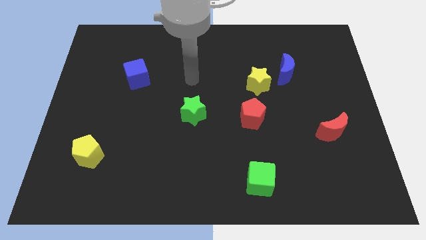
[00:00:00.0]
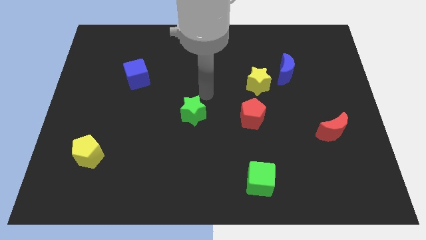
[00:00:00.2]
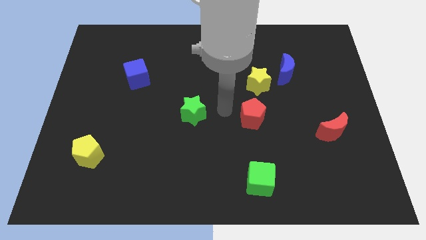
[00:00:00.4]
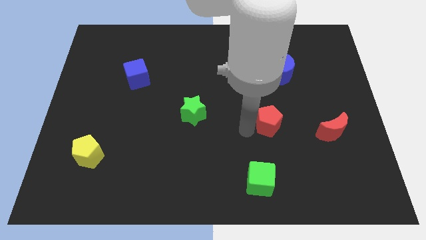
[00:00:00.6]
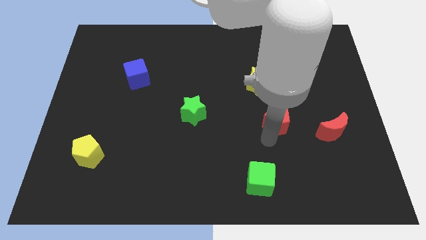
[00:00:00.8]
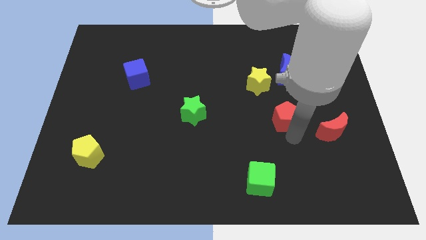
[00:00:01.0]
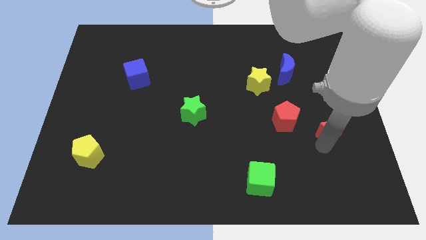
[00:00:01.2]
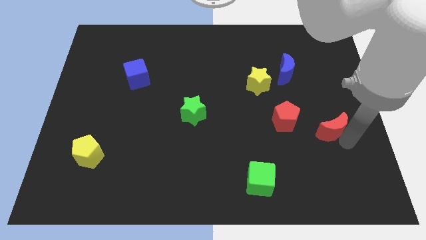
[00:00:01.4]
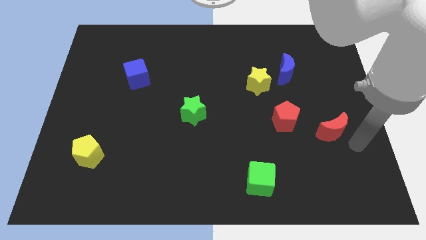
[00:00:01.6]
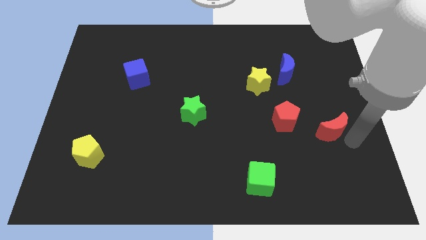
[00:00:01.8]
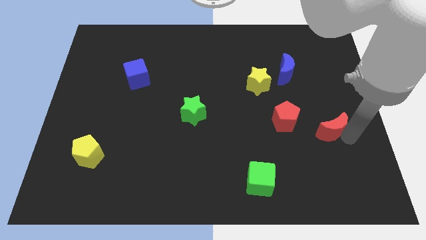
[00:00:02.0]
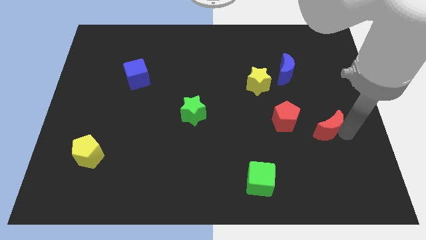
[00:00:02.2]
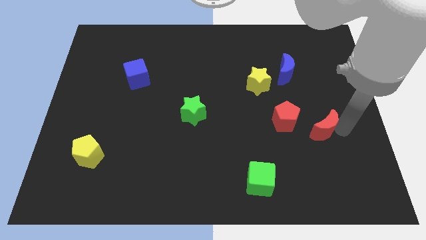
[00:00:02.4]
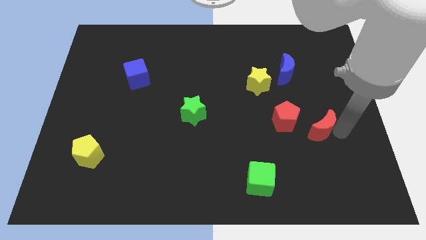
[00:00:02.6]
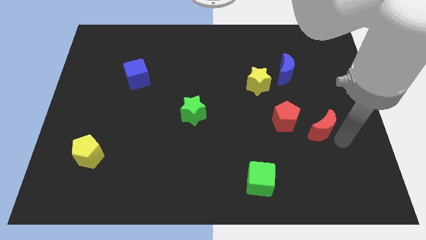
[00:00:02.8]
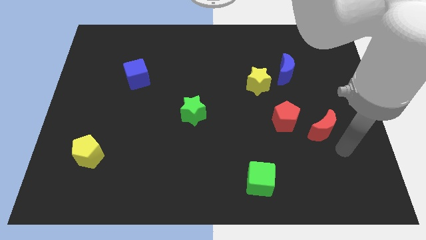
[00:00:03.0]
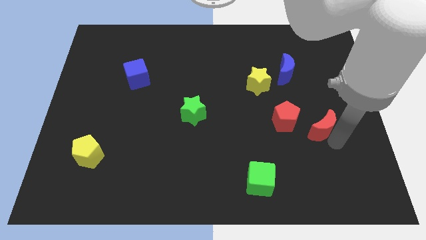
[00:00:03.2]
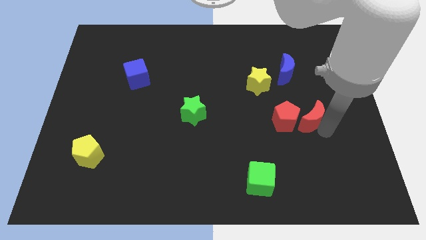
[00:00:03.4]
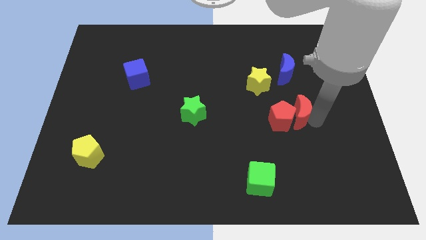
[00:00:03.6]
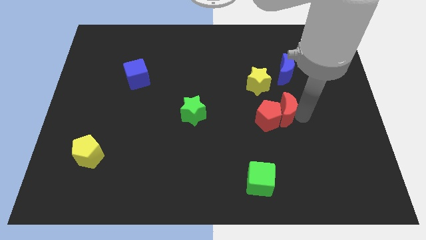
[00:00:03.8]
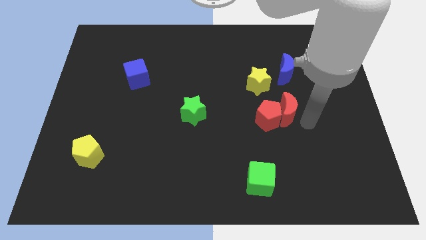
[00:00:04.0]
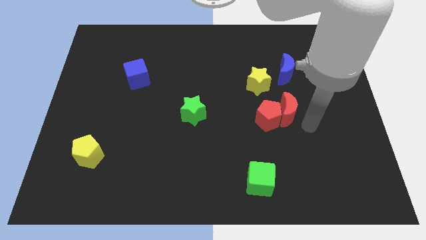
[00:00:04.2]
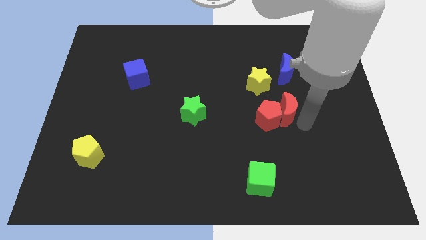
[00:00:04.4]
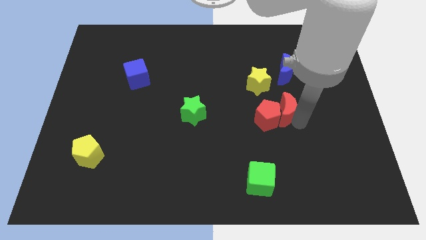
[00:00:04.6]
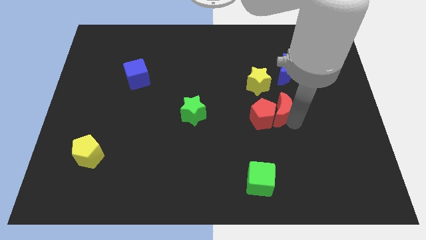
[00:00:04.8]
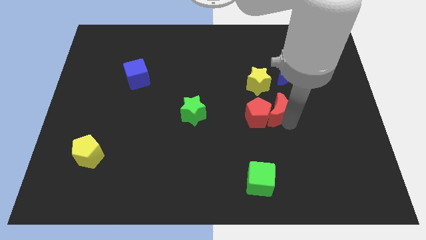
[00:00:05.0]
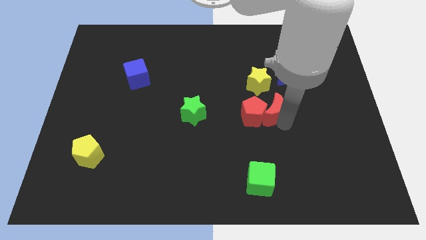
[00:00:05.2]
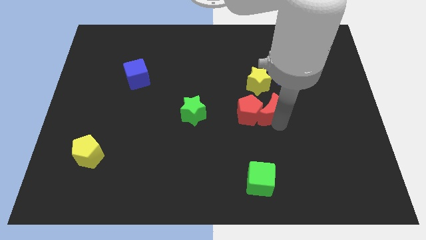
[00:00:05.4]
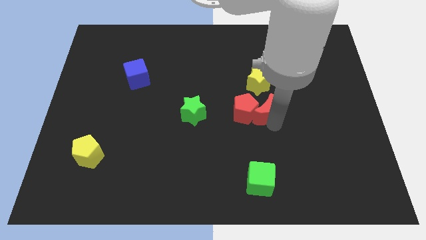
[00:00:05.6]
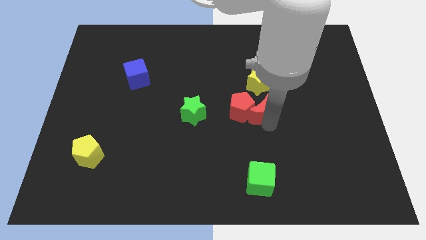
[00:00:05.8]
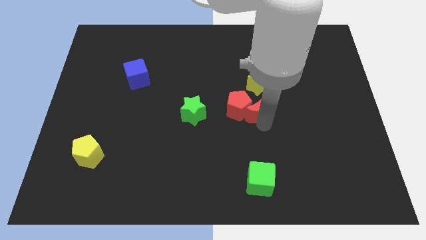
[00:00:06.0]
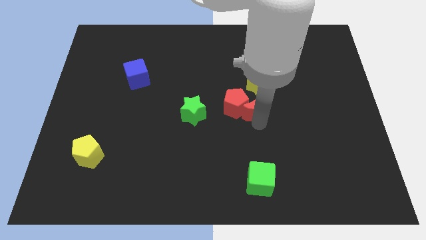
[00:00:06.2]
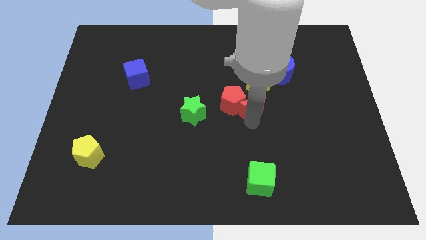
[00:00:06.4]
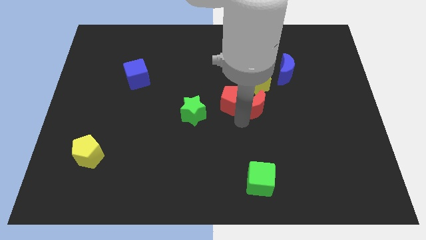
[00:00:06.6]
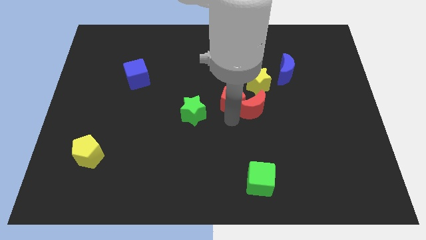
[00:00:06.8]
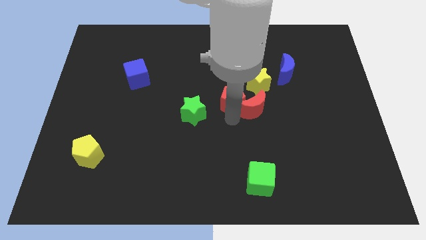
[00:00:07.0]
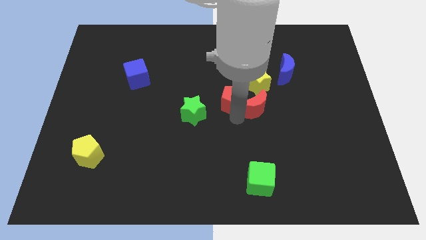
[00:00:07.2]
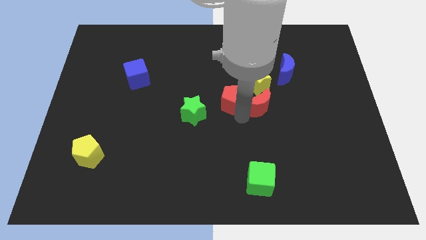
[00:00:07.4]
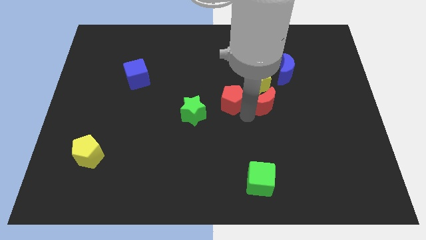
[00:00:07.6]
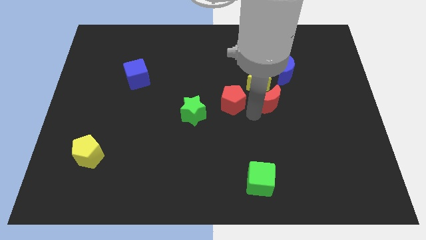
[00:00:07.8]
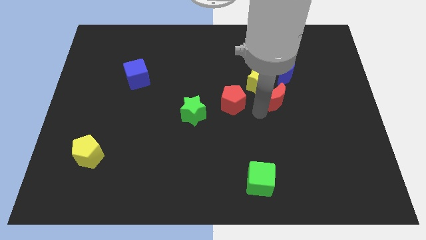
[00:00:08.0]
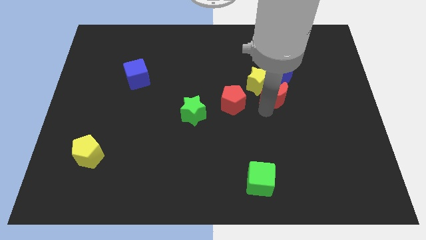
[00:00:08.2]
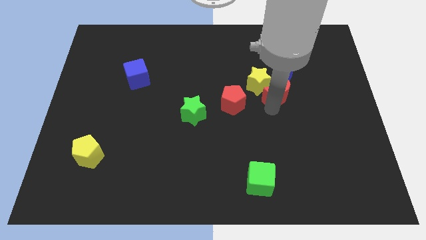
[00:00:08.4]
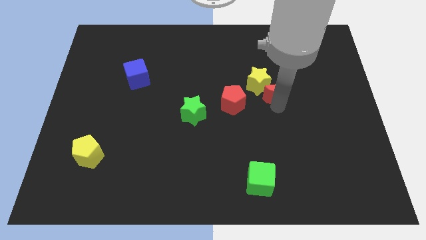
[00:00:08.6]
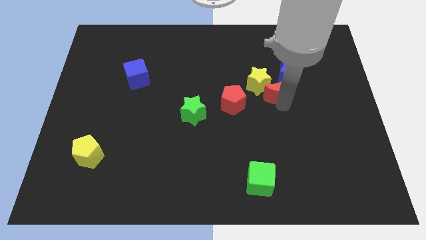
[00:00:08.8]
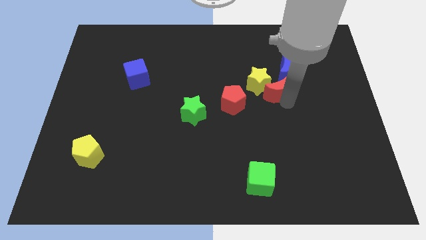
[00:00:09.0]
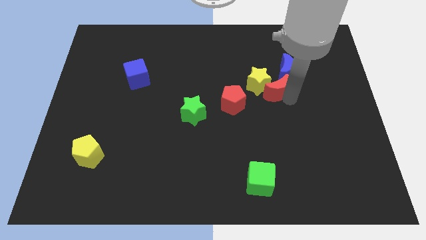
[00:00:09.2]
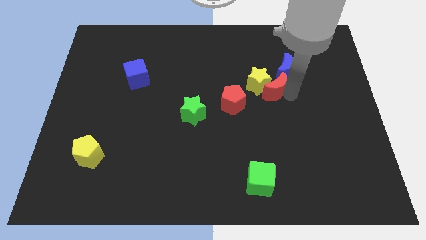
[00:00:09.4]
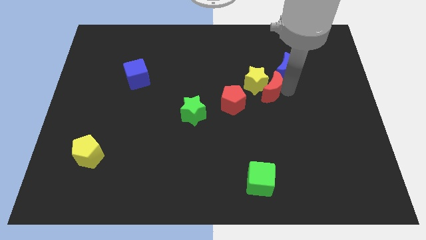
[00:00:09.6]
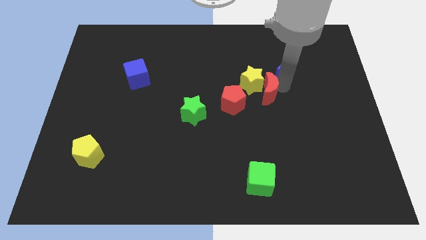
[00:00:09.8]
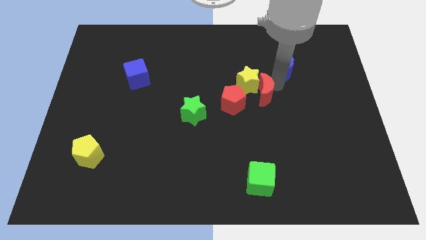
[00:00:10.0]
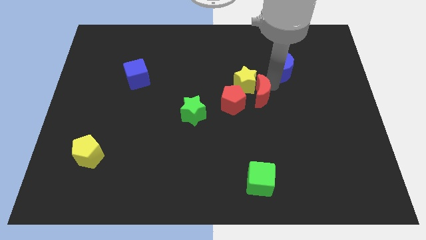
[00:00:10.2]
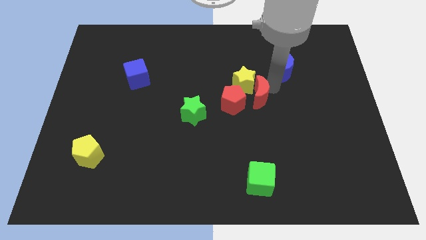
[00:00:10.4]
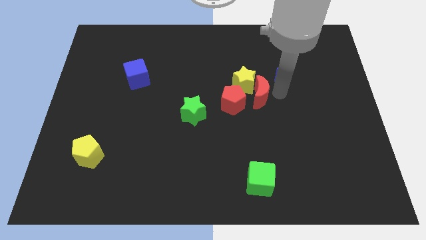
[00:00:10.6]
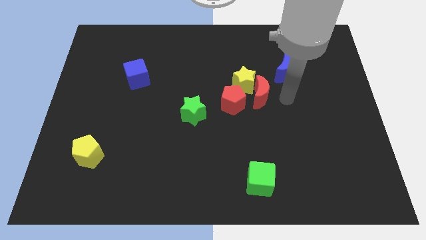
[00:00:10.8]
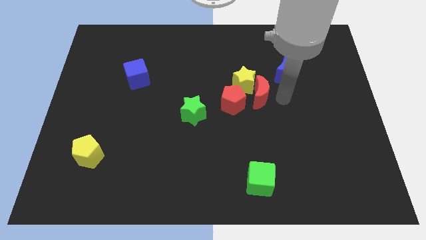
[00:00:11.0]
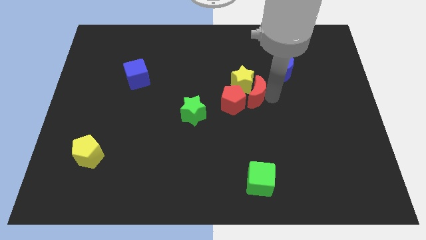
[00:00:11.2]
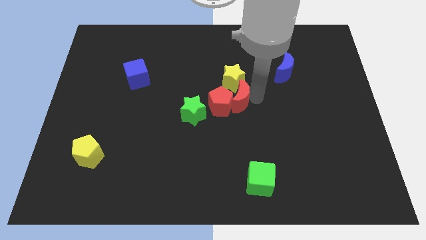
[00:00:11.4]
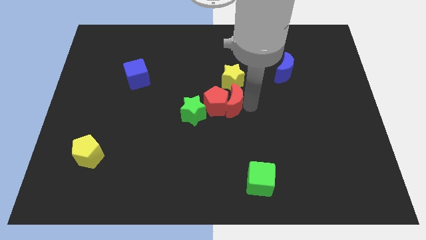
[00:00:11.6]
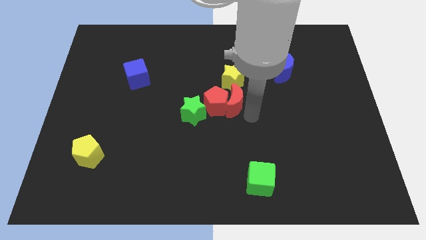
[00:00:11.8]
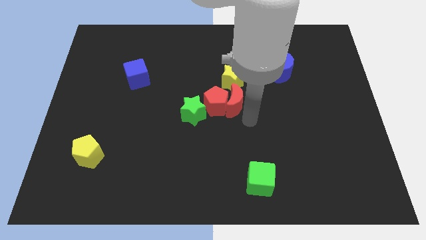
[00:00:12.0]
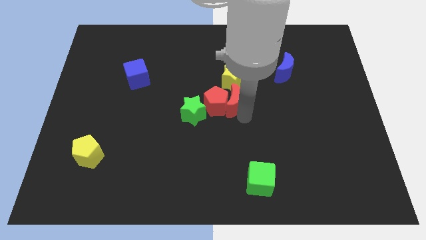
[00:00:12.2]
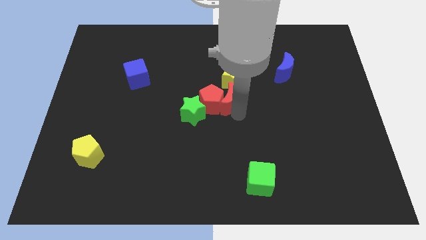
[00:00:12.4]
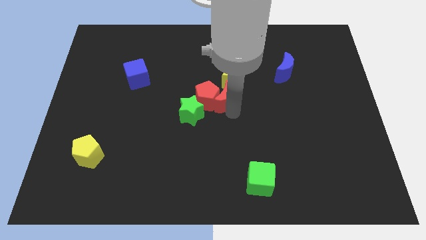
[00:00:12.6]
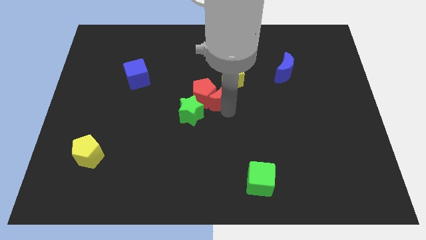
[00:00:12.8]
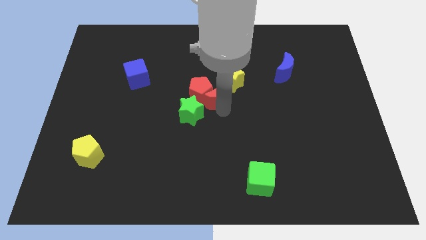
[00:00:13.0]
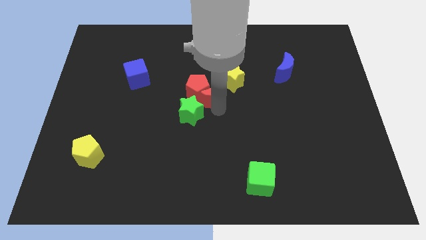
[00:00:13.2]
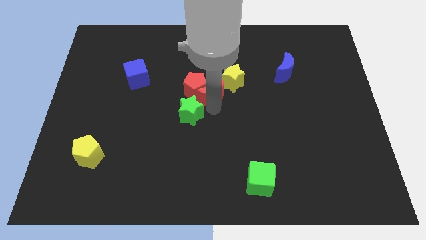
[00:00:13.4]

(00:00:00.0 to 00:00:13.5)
slide the red moon to the top side of the green star

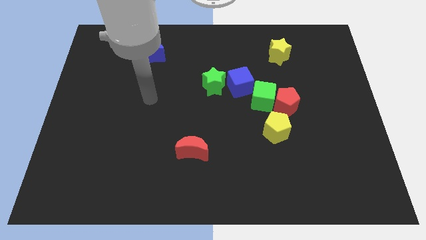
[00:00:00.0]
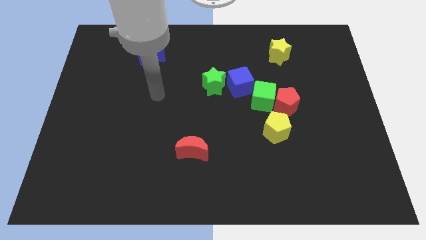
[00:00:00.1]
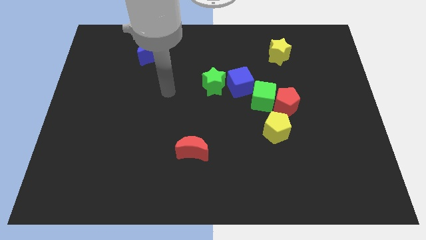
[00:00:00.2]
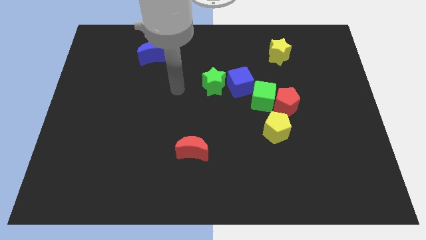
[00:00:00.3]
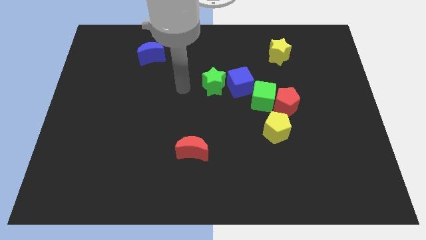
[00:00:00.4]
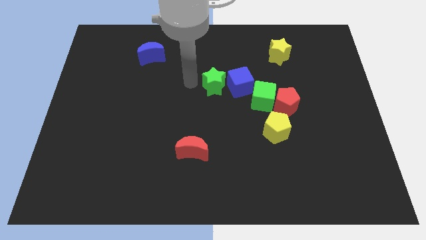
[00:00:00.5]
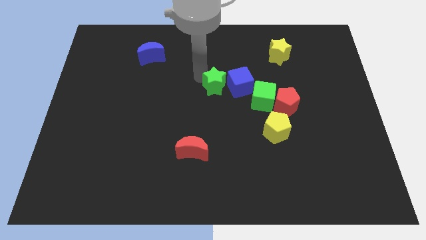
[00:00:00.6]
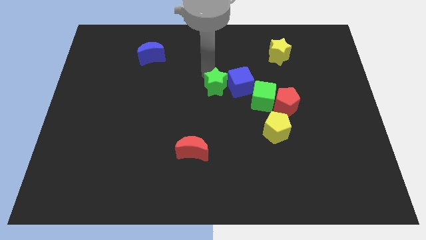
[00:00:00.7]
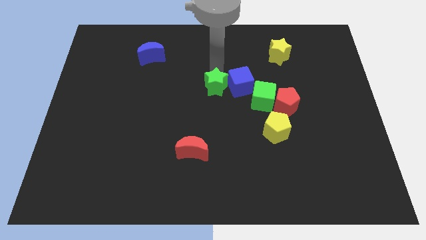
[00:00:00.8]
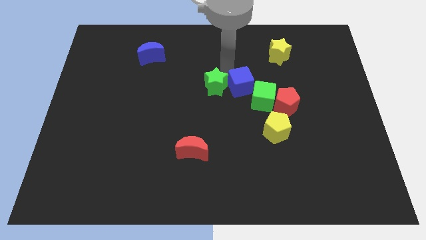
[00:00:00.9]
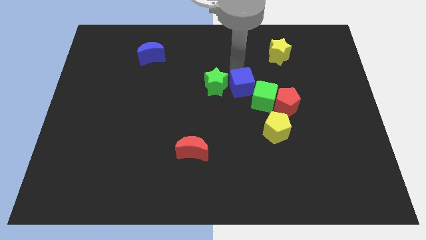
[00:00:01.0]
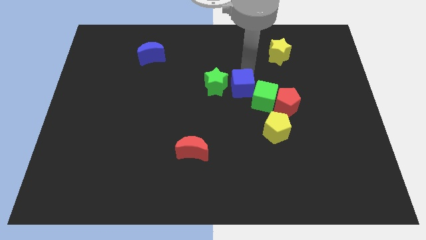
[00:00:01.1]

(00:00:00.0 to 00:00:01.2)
push the green cube to the bottom of the blue cube

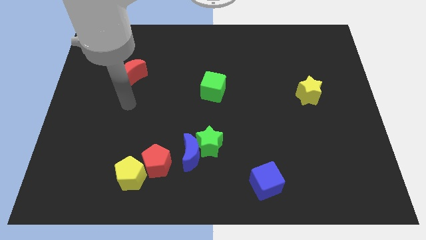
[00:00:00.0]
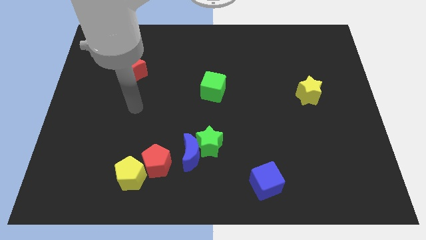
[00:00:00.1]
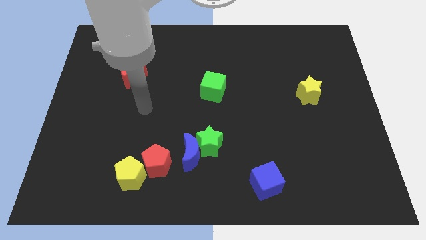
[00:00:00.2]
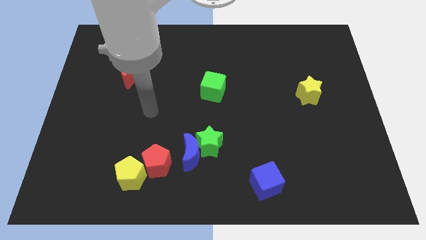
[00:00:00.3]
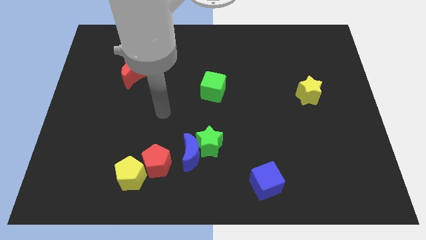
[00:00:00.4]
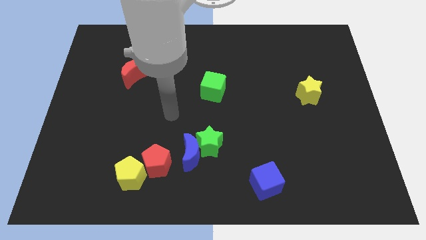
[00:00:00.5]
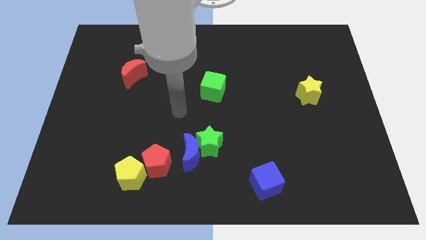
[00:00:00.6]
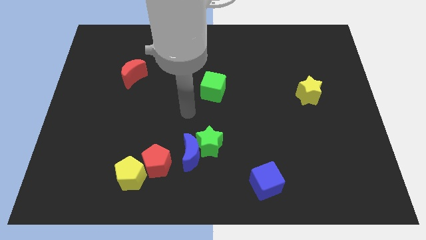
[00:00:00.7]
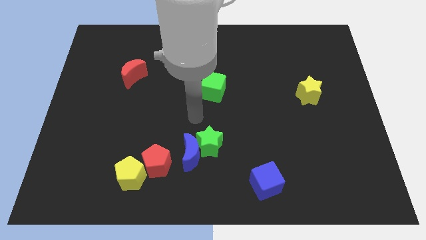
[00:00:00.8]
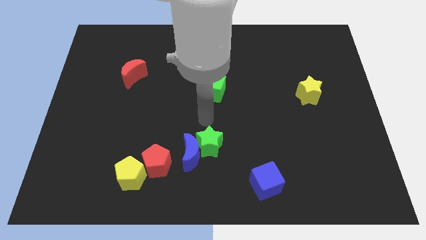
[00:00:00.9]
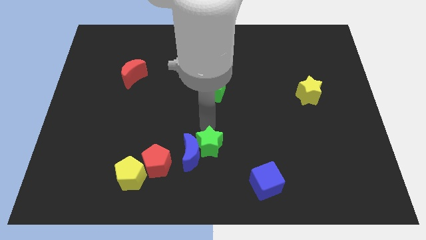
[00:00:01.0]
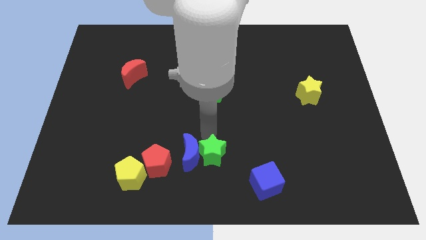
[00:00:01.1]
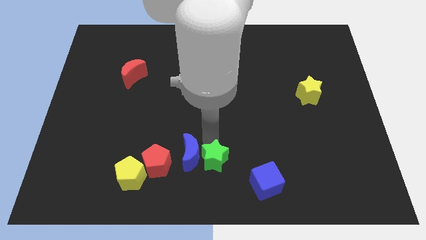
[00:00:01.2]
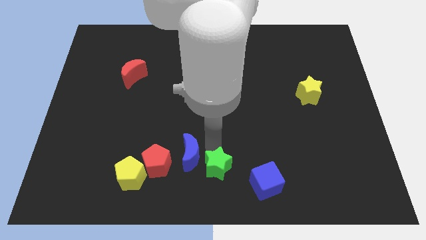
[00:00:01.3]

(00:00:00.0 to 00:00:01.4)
slide the green star to the left side of the blue cube
